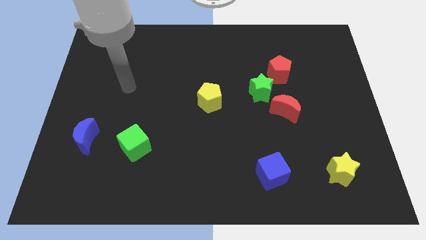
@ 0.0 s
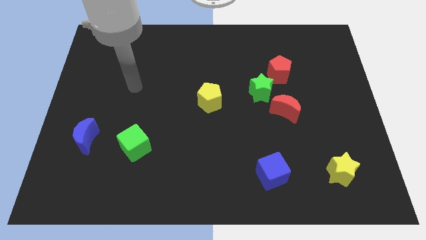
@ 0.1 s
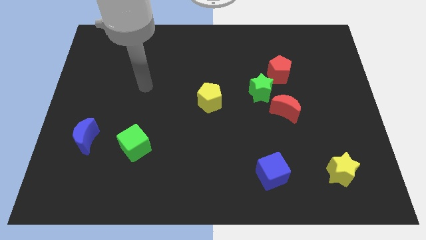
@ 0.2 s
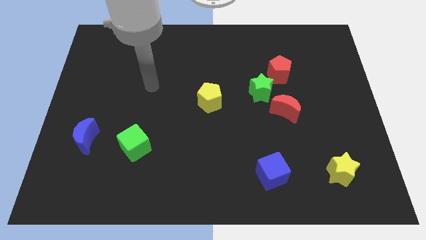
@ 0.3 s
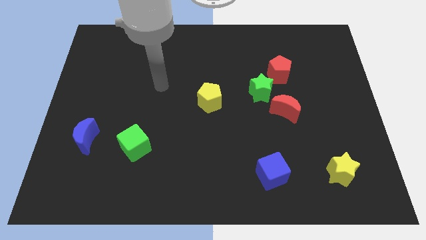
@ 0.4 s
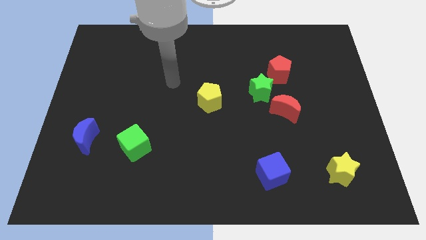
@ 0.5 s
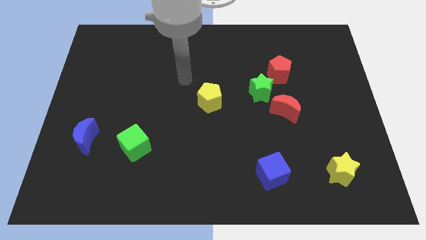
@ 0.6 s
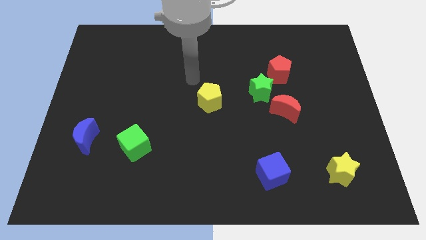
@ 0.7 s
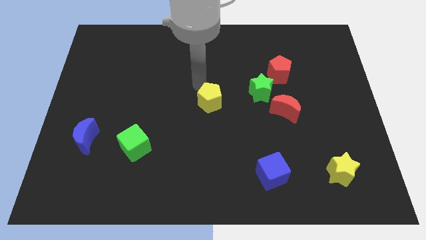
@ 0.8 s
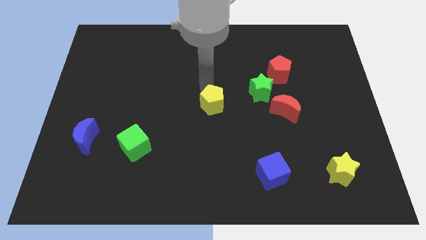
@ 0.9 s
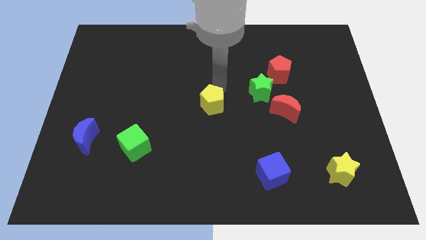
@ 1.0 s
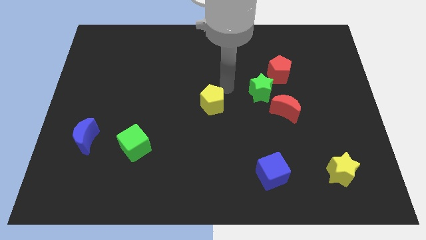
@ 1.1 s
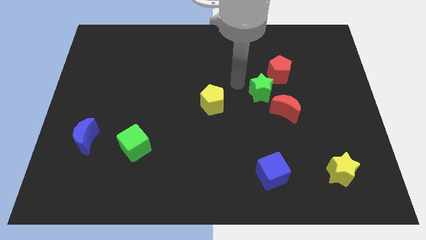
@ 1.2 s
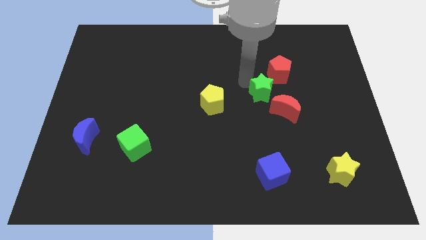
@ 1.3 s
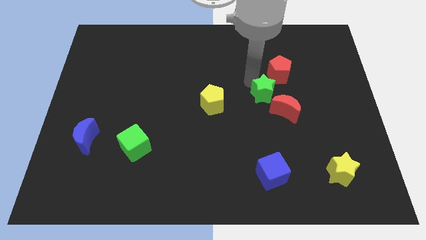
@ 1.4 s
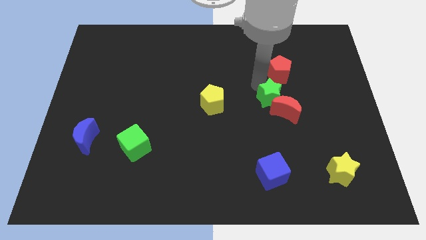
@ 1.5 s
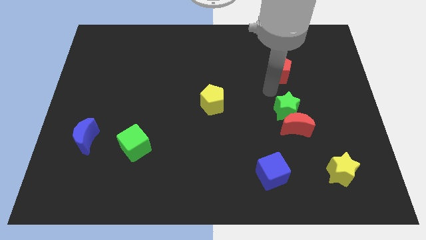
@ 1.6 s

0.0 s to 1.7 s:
pull the red pentagon apart from the green star

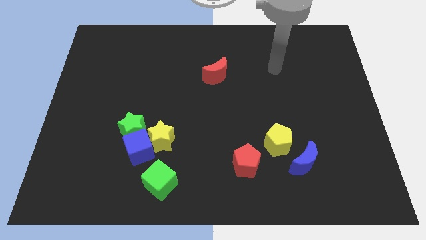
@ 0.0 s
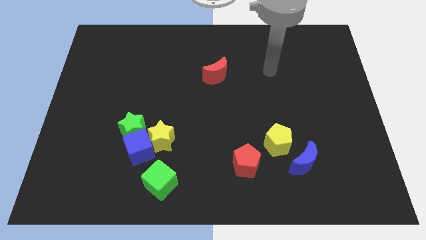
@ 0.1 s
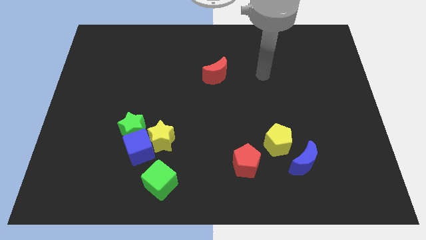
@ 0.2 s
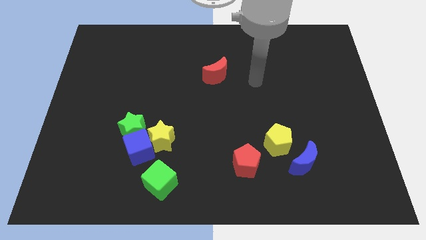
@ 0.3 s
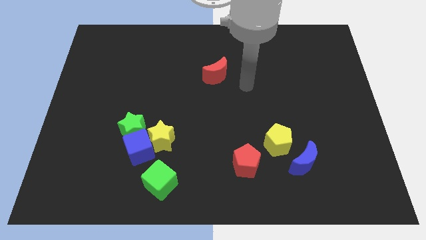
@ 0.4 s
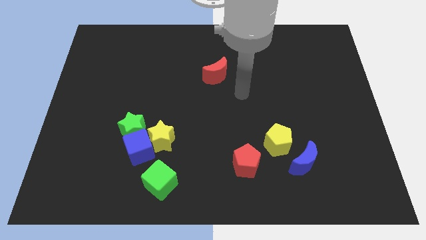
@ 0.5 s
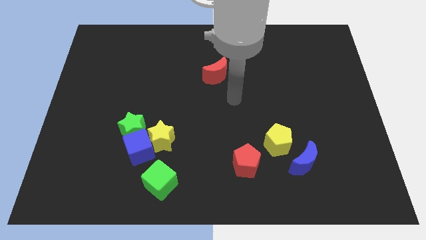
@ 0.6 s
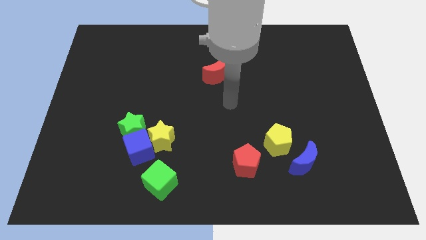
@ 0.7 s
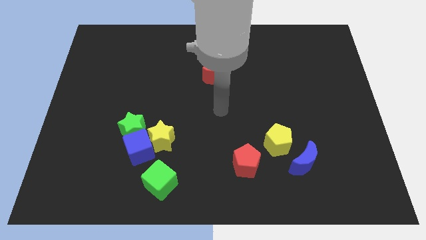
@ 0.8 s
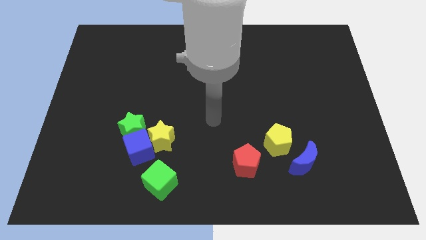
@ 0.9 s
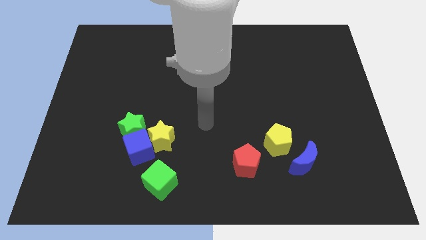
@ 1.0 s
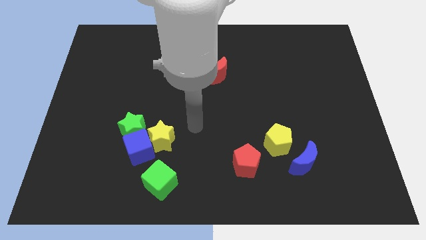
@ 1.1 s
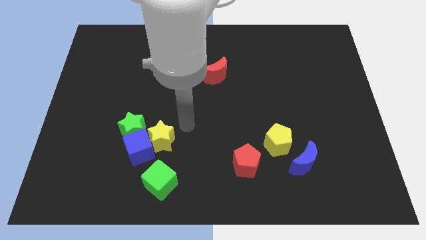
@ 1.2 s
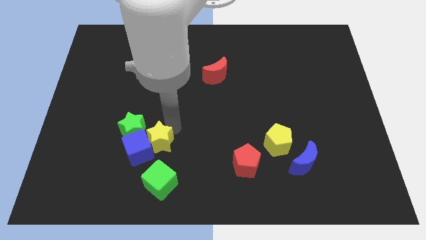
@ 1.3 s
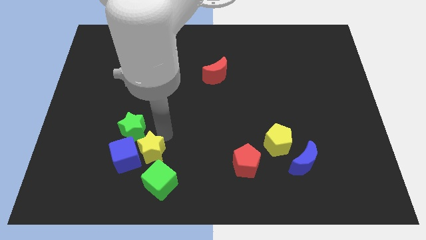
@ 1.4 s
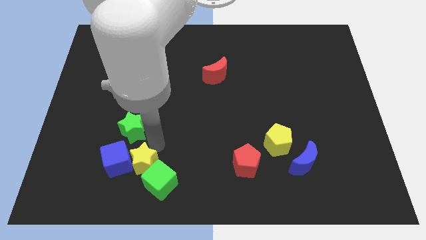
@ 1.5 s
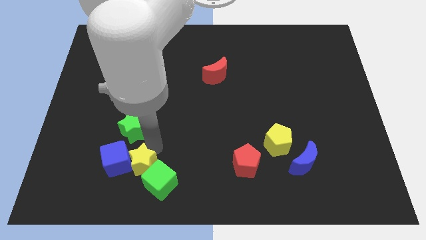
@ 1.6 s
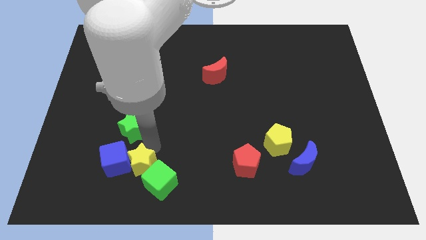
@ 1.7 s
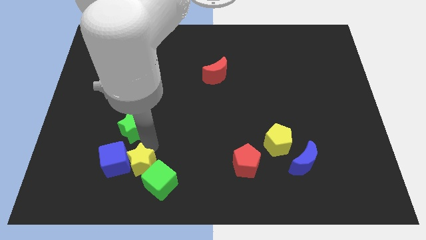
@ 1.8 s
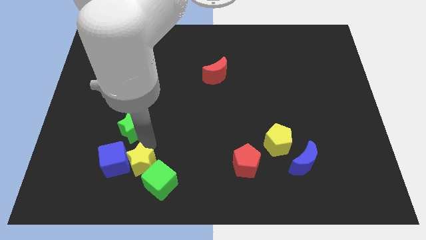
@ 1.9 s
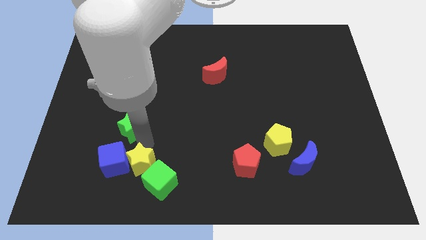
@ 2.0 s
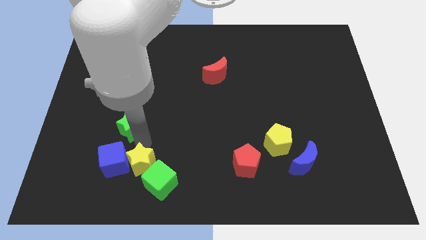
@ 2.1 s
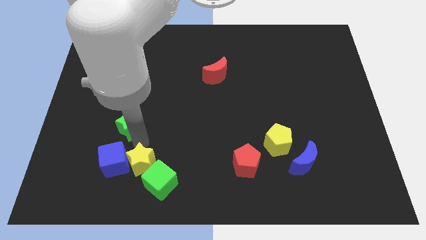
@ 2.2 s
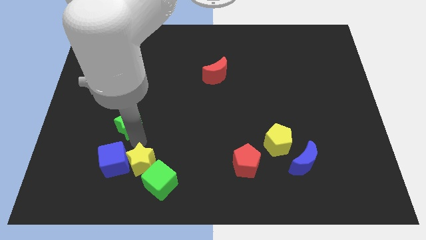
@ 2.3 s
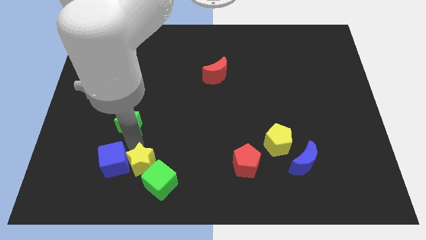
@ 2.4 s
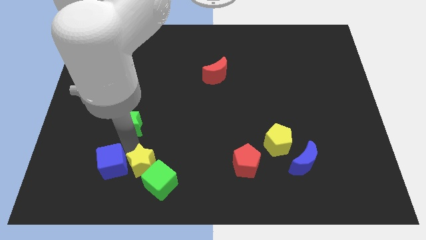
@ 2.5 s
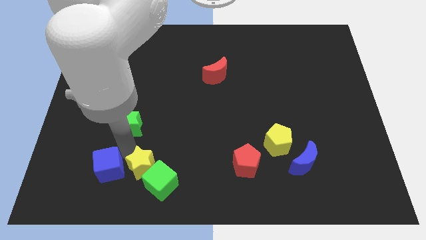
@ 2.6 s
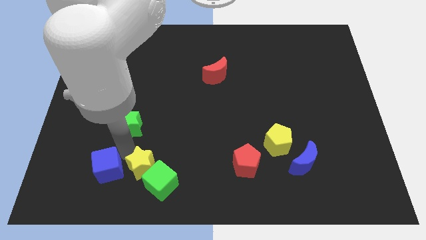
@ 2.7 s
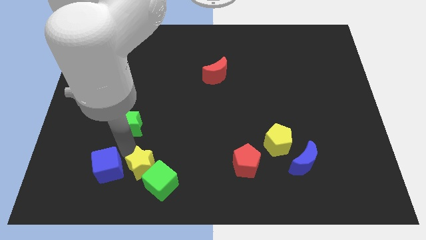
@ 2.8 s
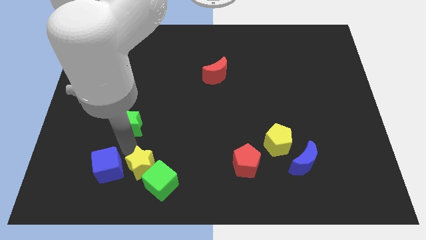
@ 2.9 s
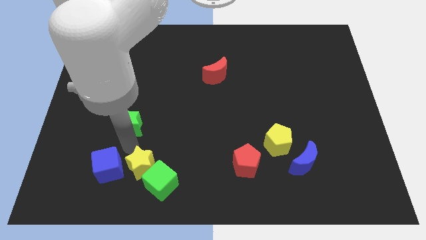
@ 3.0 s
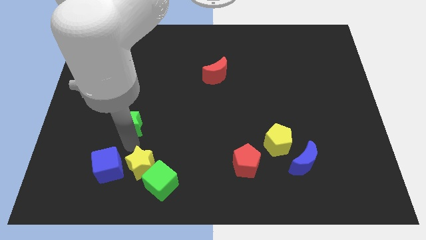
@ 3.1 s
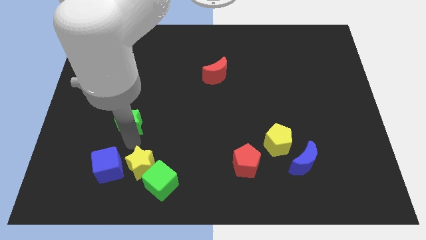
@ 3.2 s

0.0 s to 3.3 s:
move the green star away from the blue cube and yellow star

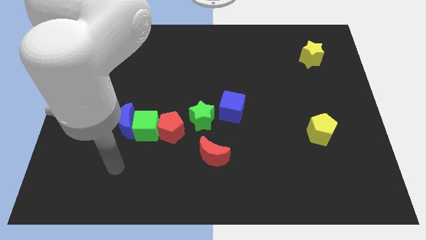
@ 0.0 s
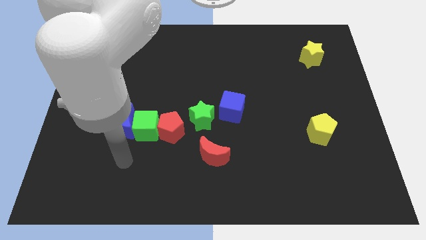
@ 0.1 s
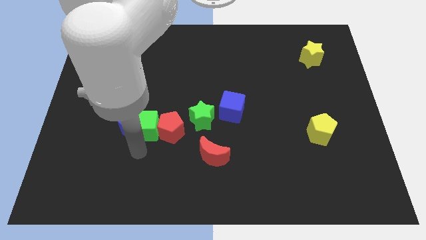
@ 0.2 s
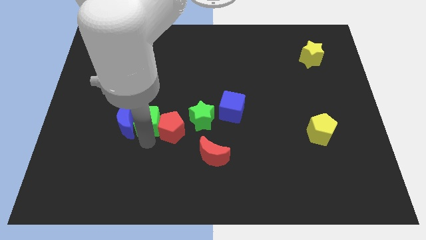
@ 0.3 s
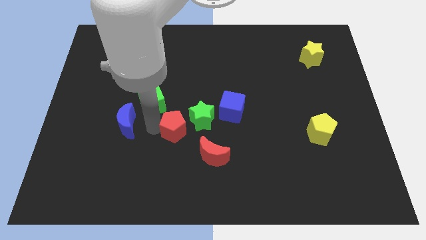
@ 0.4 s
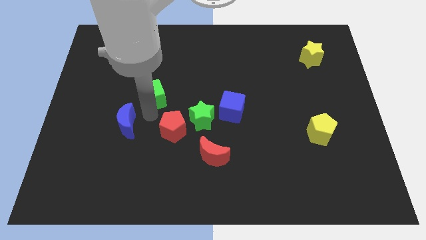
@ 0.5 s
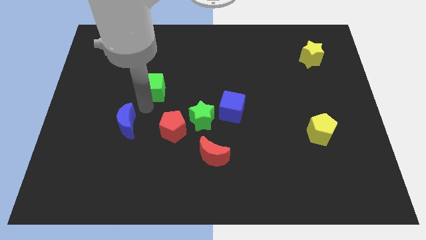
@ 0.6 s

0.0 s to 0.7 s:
move the blue moon away from the green cube

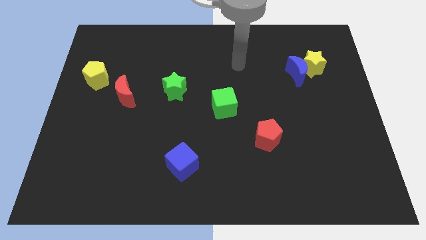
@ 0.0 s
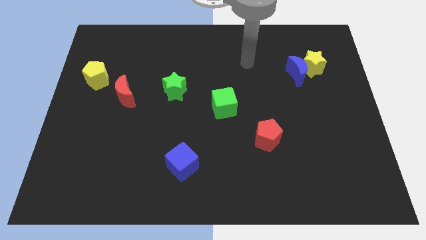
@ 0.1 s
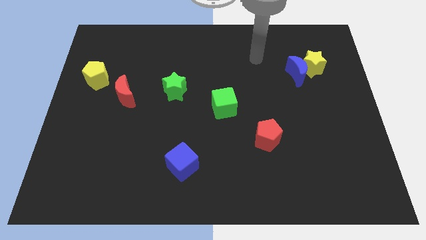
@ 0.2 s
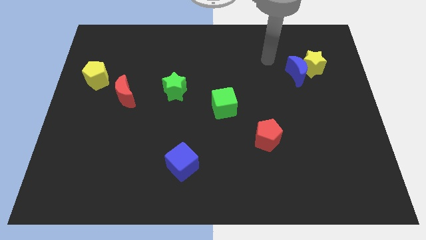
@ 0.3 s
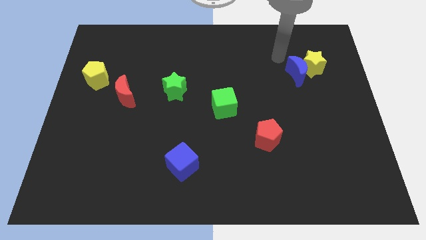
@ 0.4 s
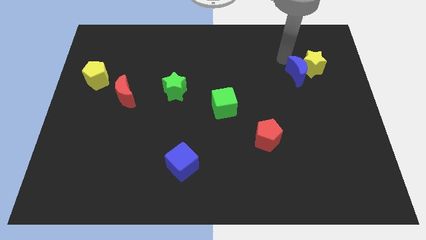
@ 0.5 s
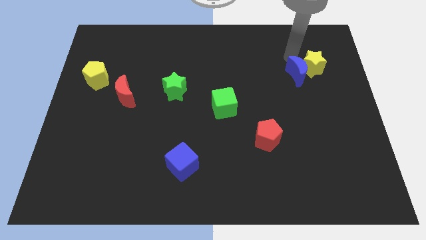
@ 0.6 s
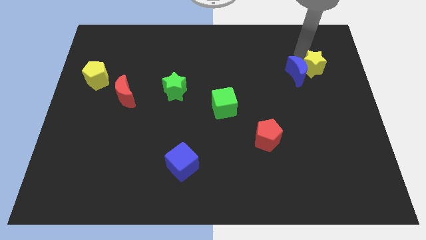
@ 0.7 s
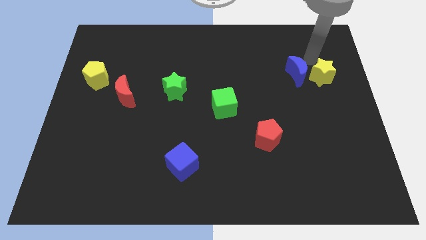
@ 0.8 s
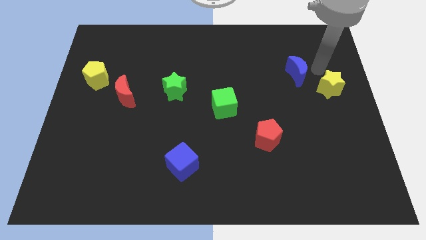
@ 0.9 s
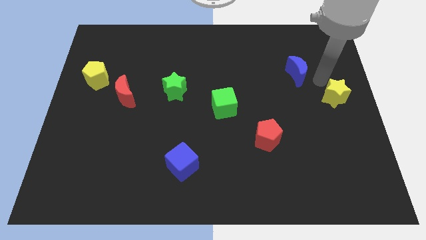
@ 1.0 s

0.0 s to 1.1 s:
separate the blue moon from the yellow star

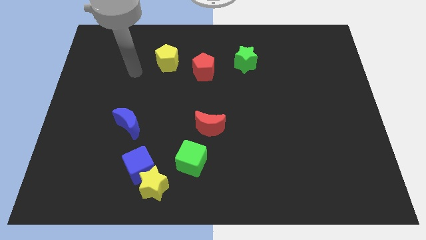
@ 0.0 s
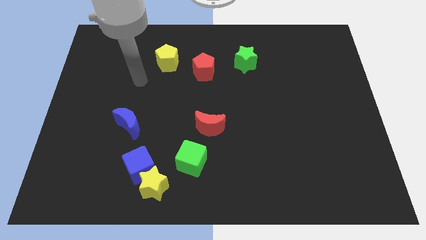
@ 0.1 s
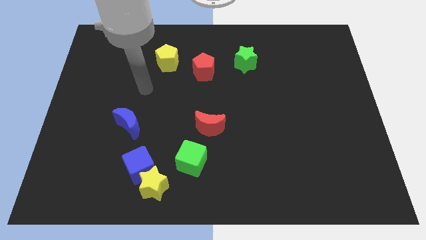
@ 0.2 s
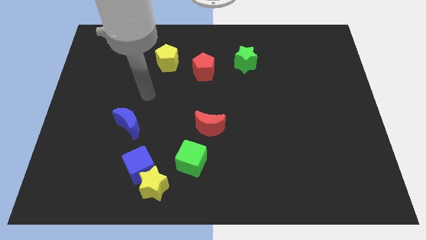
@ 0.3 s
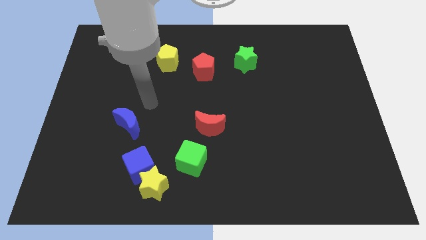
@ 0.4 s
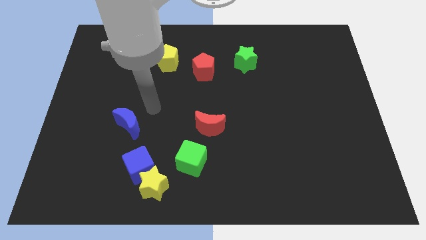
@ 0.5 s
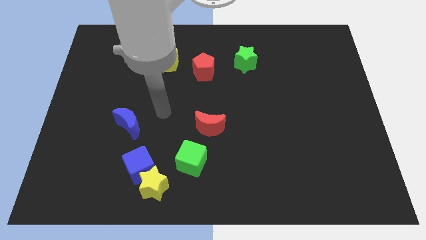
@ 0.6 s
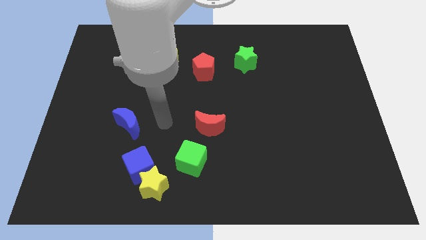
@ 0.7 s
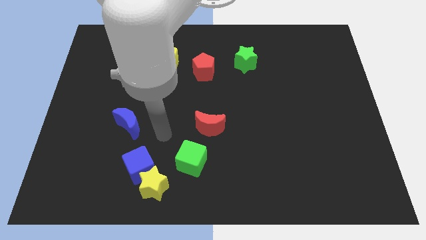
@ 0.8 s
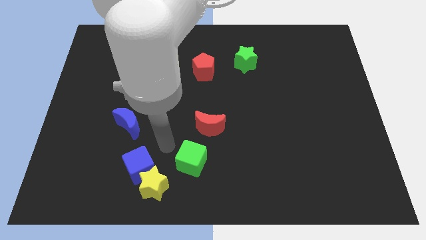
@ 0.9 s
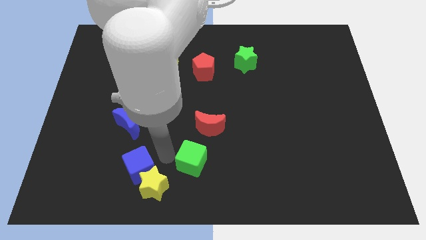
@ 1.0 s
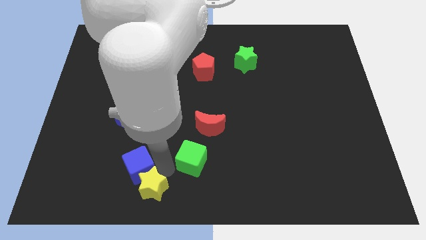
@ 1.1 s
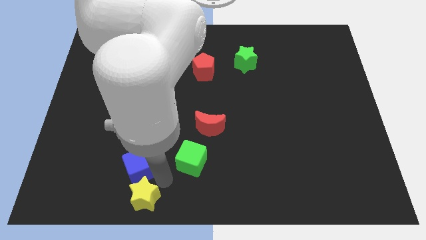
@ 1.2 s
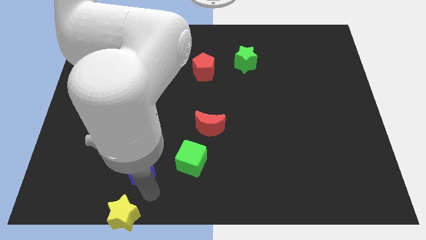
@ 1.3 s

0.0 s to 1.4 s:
move the blue cube away from the yellow star

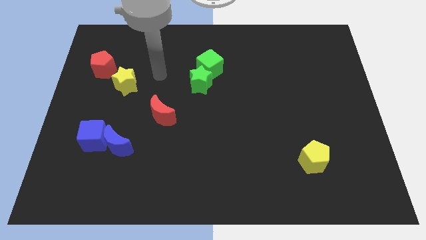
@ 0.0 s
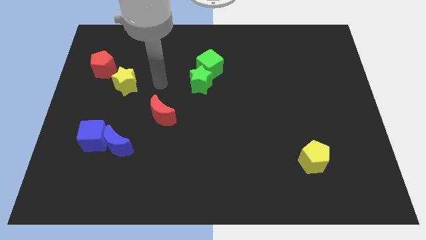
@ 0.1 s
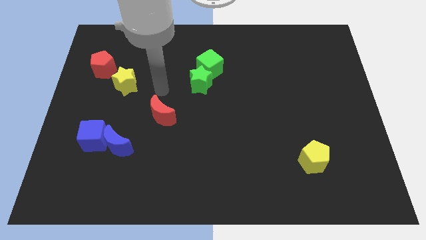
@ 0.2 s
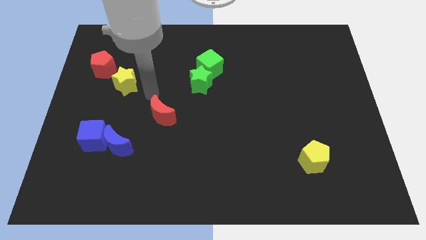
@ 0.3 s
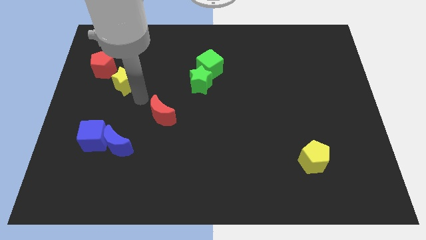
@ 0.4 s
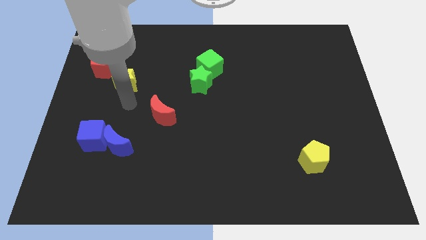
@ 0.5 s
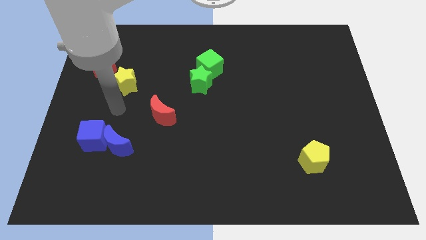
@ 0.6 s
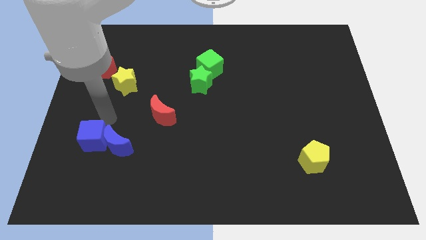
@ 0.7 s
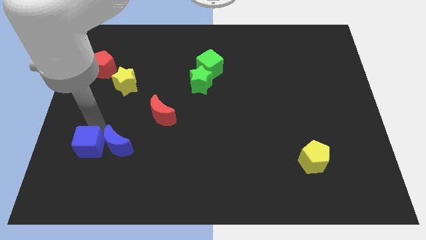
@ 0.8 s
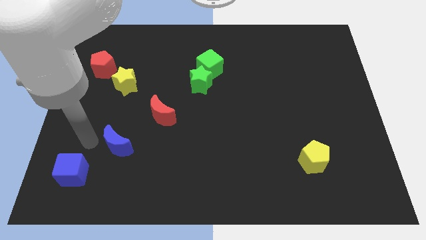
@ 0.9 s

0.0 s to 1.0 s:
move the blue moon away from the blue cube

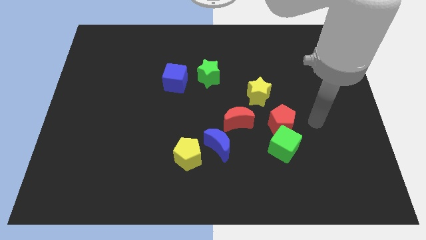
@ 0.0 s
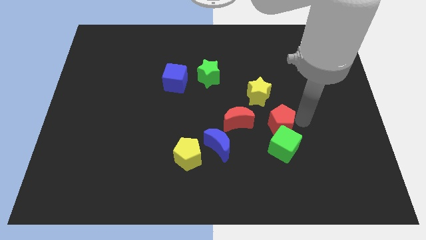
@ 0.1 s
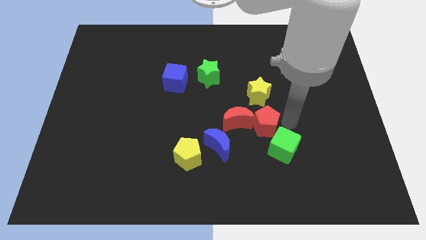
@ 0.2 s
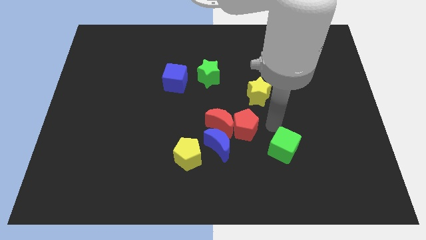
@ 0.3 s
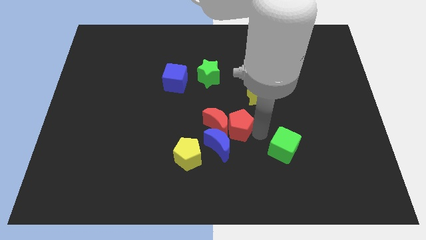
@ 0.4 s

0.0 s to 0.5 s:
move the green cube away from the red pentagon
